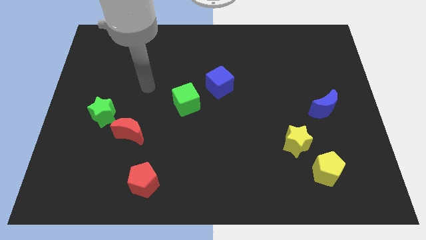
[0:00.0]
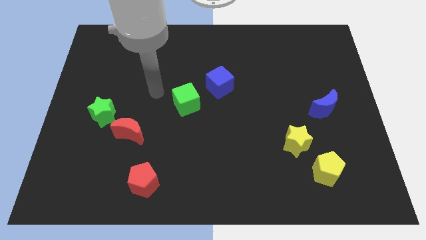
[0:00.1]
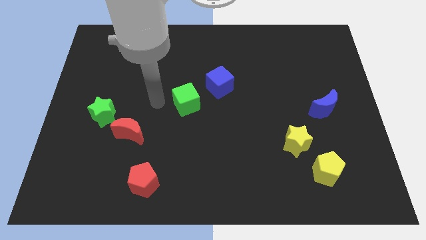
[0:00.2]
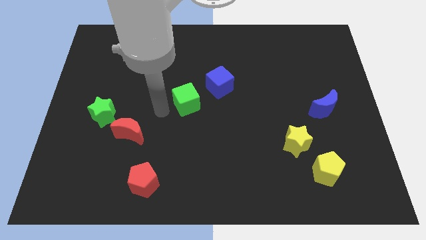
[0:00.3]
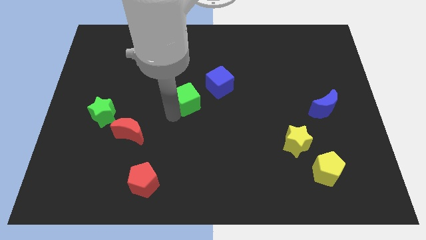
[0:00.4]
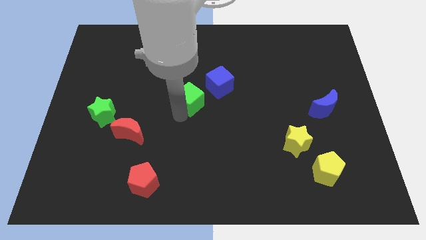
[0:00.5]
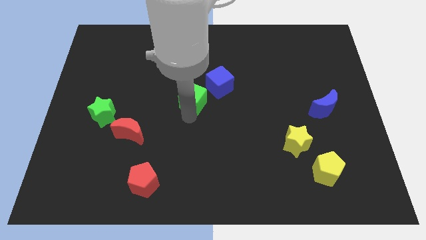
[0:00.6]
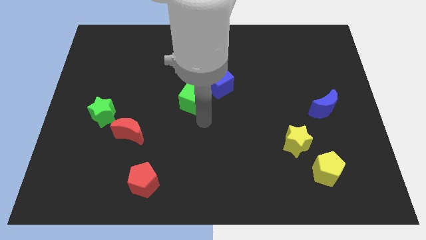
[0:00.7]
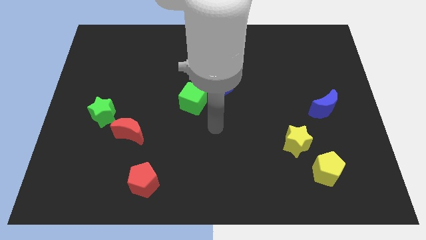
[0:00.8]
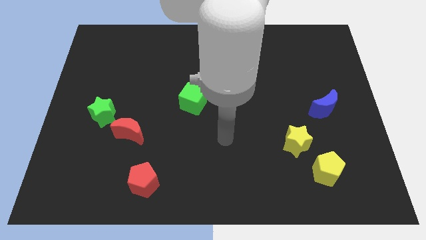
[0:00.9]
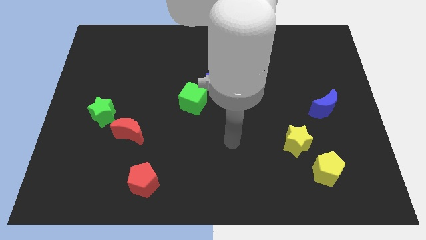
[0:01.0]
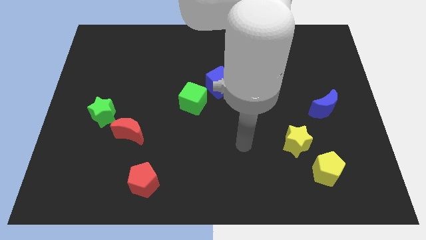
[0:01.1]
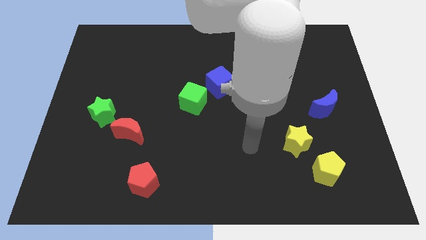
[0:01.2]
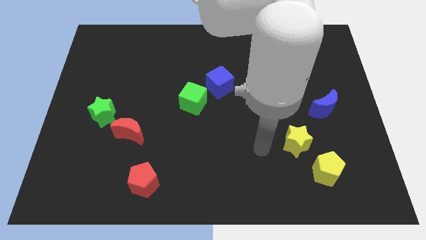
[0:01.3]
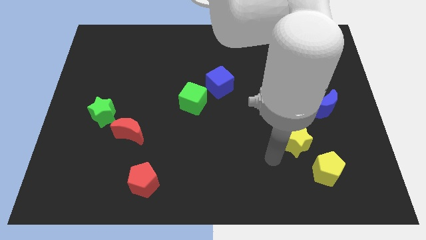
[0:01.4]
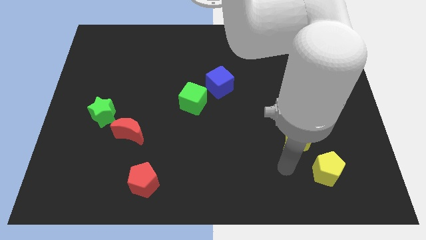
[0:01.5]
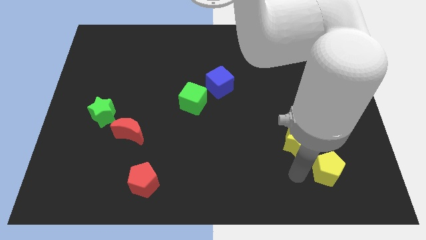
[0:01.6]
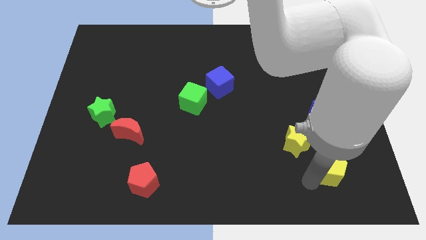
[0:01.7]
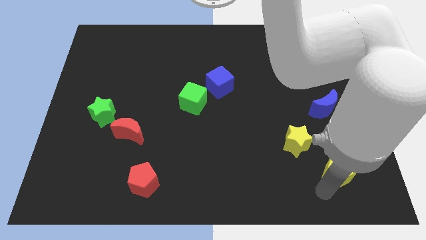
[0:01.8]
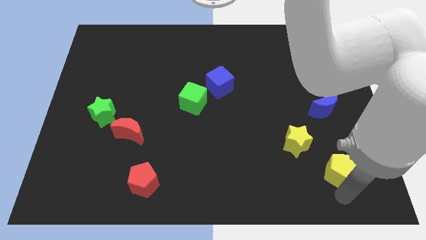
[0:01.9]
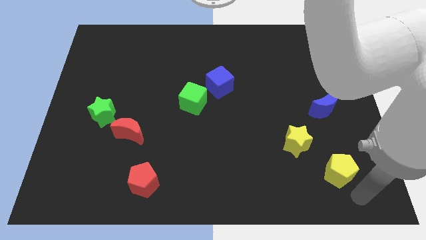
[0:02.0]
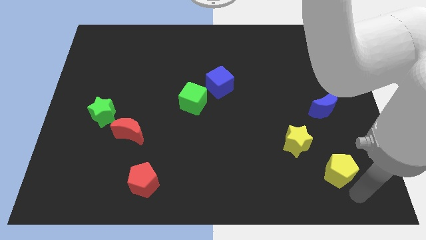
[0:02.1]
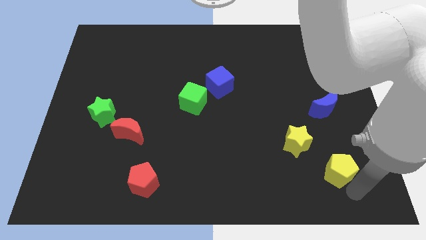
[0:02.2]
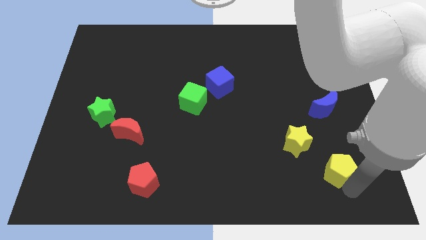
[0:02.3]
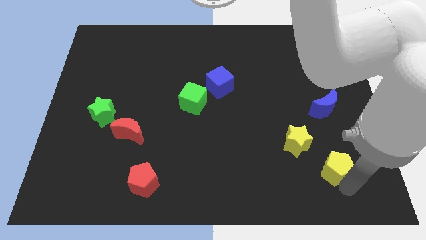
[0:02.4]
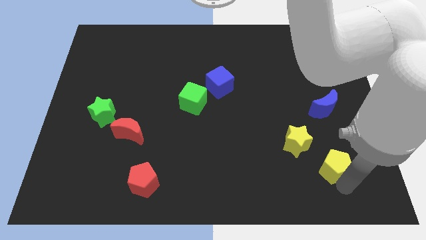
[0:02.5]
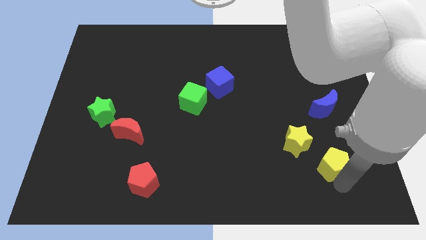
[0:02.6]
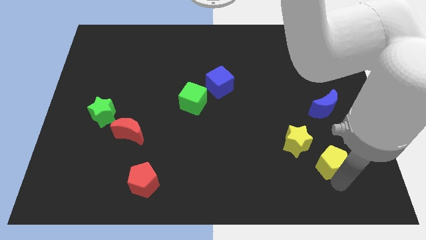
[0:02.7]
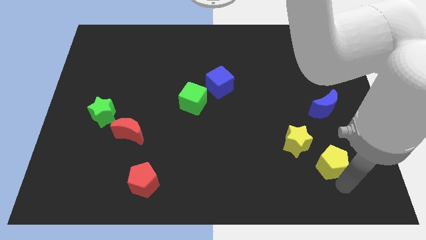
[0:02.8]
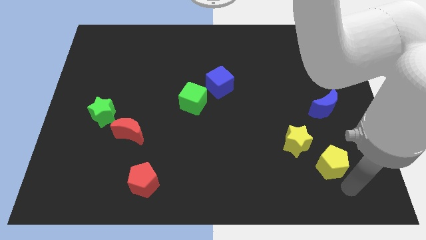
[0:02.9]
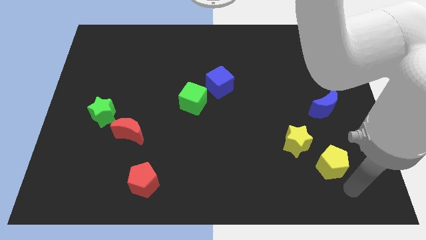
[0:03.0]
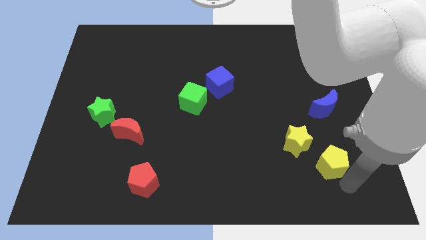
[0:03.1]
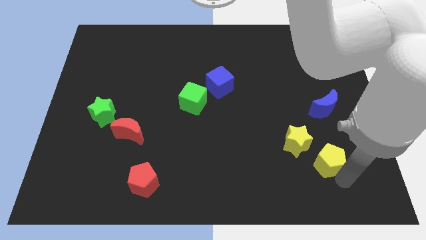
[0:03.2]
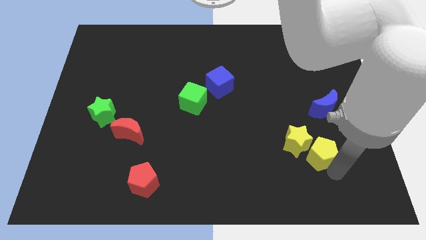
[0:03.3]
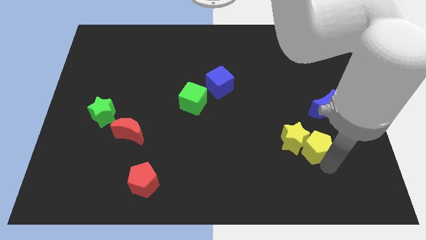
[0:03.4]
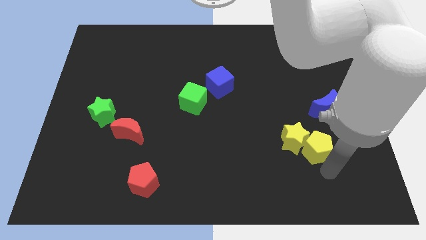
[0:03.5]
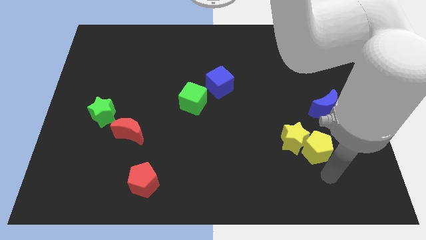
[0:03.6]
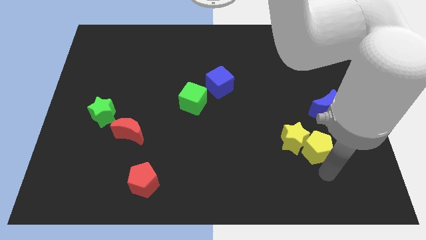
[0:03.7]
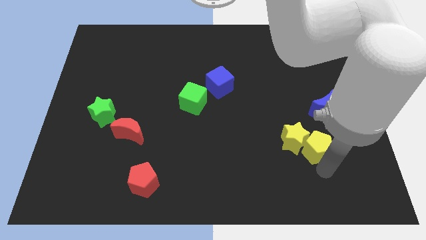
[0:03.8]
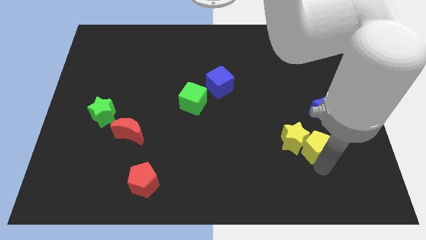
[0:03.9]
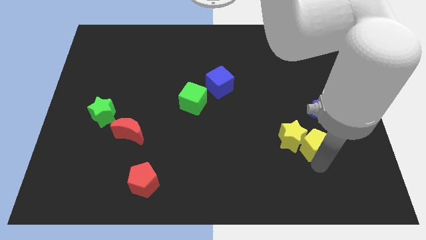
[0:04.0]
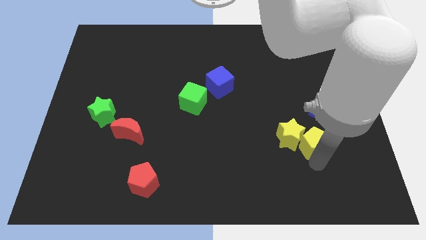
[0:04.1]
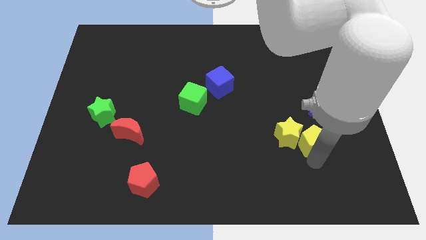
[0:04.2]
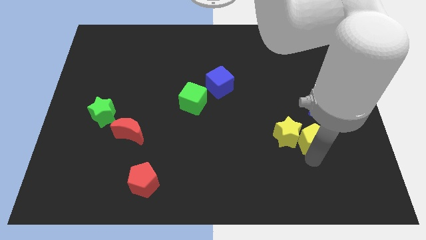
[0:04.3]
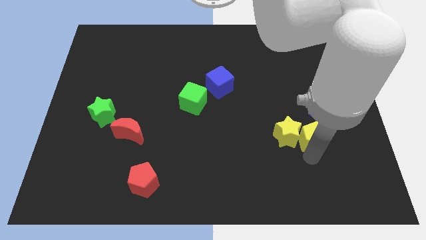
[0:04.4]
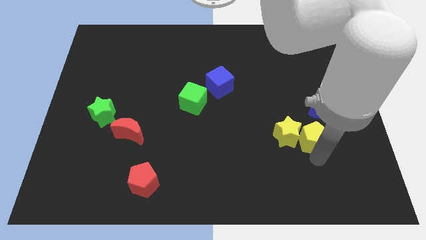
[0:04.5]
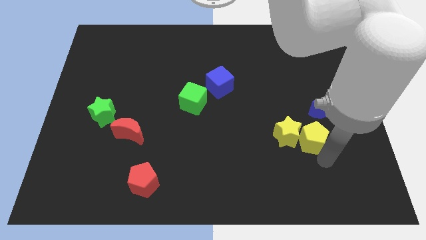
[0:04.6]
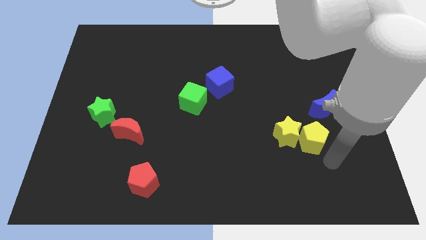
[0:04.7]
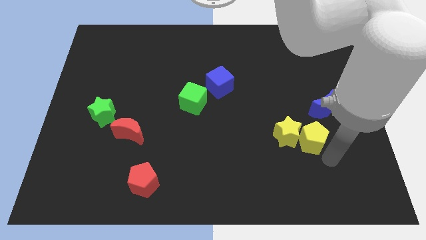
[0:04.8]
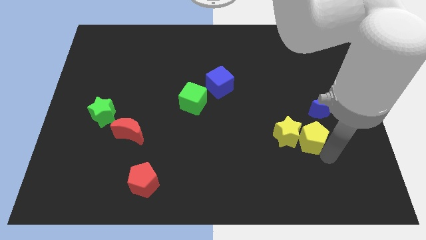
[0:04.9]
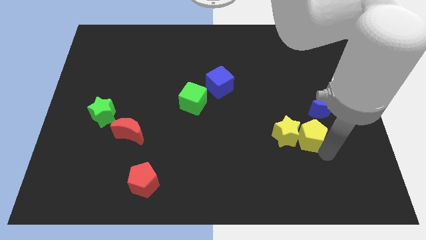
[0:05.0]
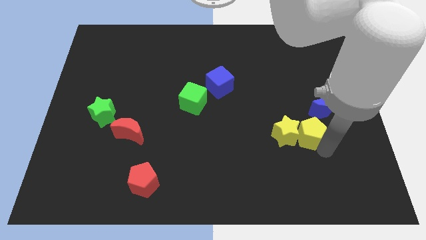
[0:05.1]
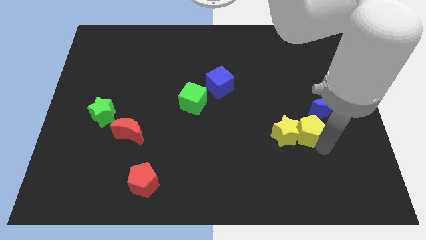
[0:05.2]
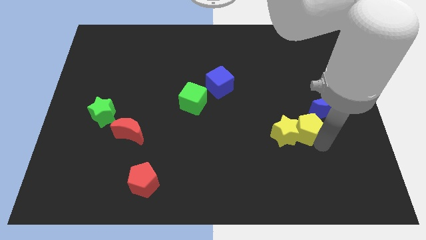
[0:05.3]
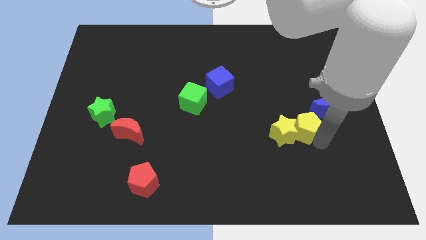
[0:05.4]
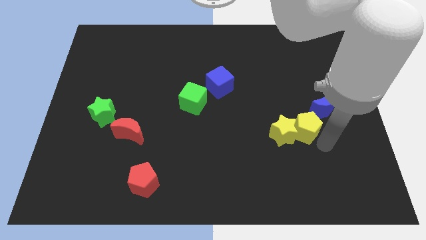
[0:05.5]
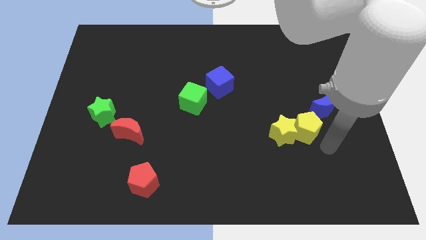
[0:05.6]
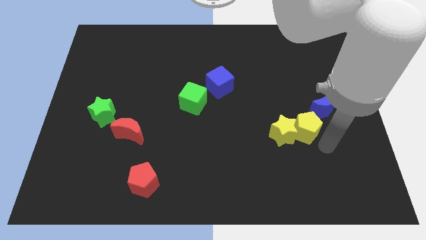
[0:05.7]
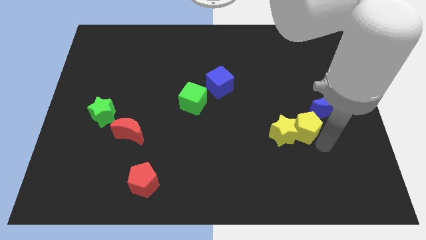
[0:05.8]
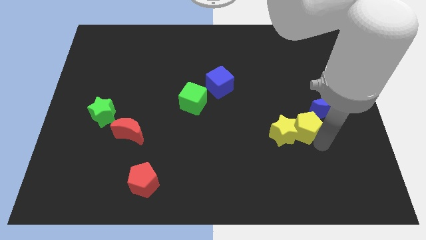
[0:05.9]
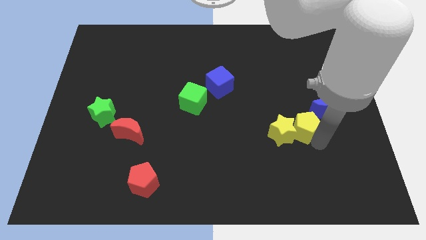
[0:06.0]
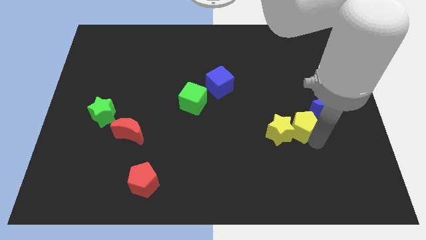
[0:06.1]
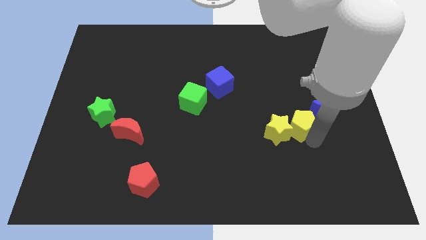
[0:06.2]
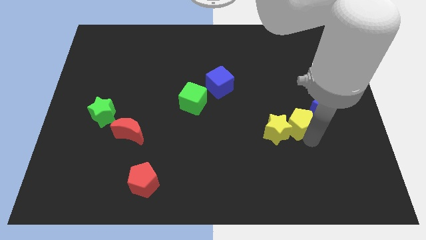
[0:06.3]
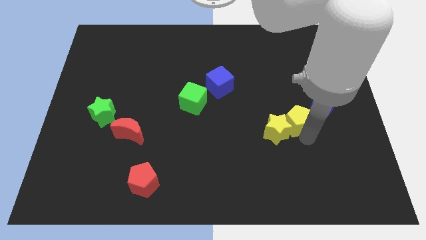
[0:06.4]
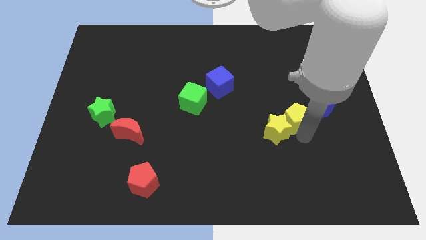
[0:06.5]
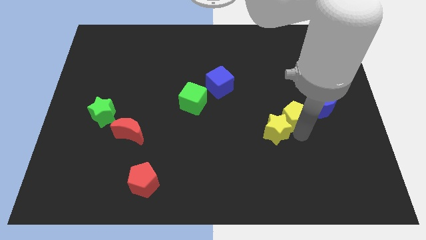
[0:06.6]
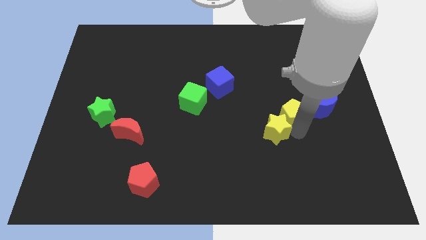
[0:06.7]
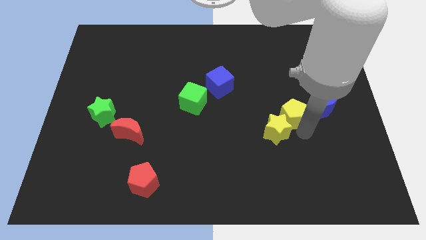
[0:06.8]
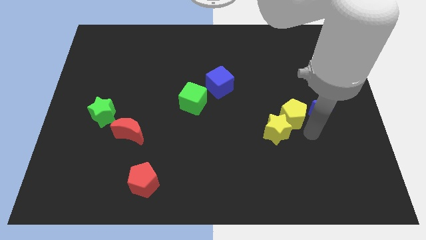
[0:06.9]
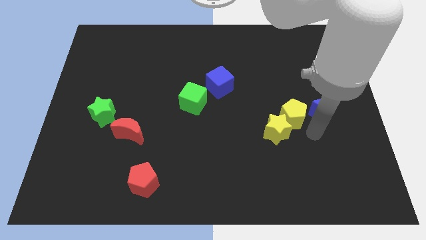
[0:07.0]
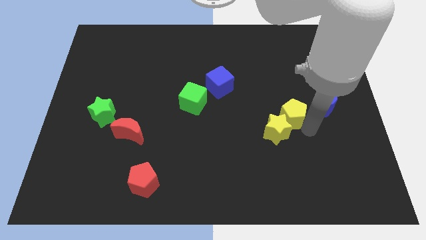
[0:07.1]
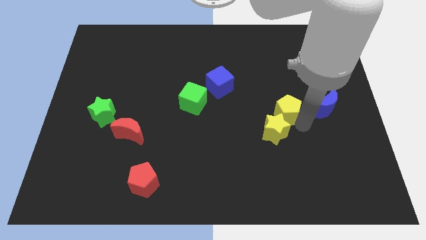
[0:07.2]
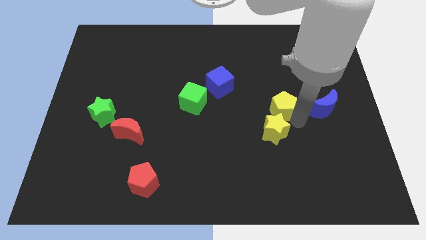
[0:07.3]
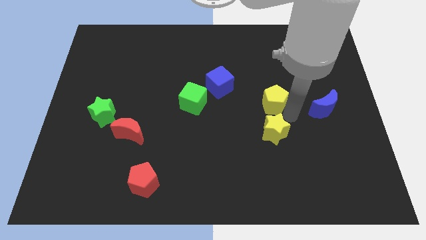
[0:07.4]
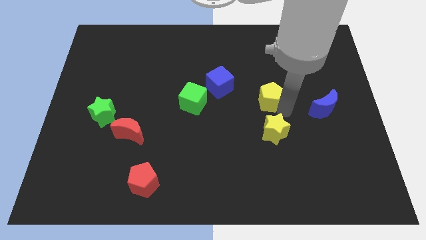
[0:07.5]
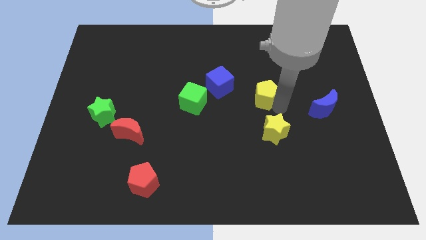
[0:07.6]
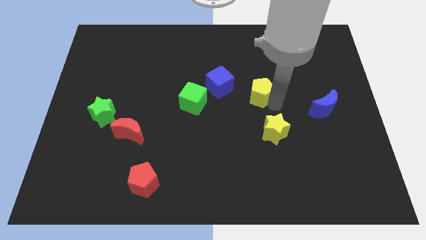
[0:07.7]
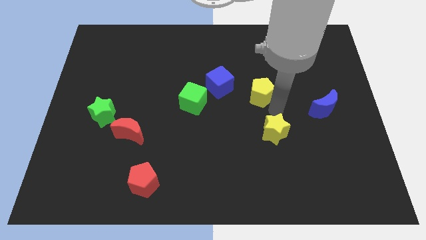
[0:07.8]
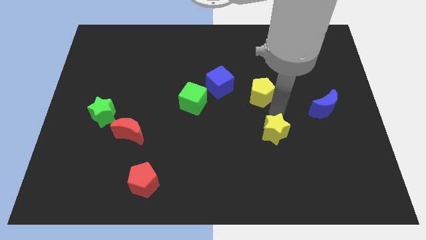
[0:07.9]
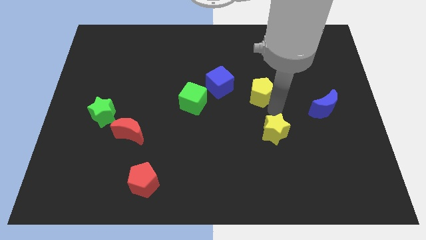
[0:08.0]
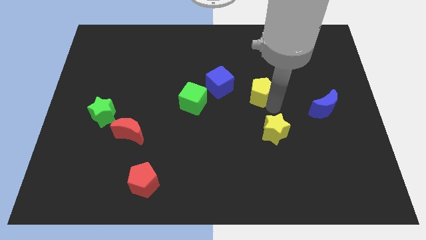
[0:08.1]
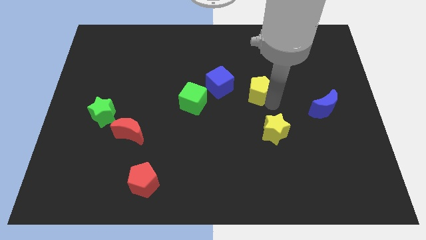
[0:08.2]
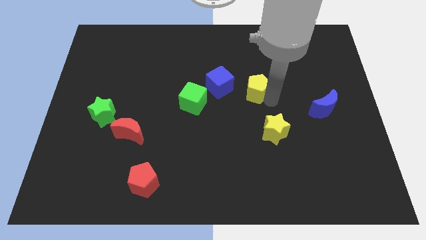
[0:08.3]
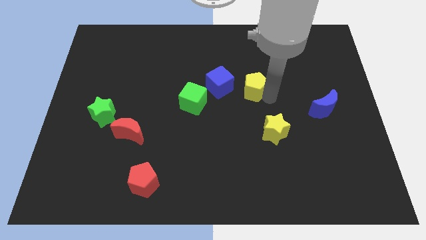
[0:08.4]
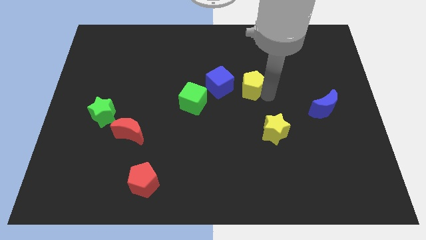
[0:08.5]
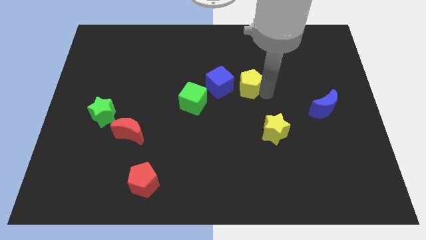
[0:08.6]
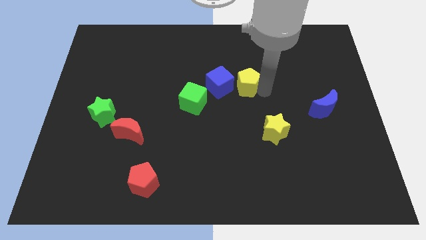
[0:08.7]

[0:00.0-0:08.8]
put the yellow pentagon to the top right side of the blue cube
